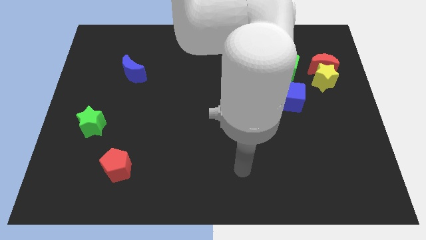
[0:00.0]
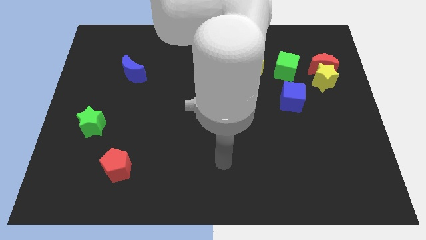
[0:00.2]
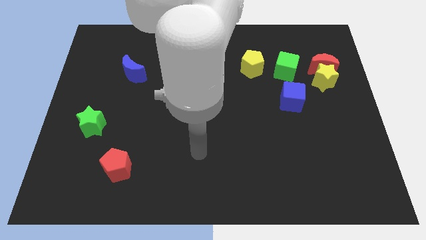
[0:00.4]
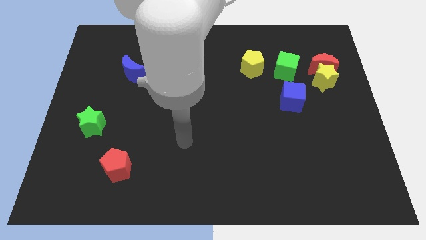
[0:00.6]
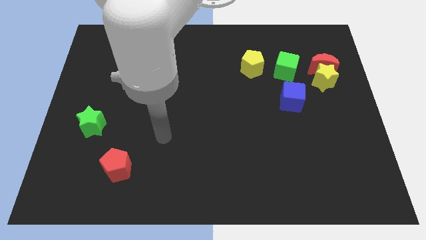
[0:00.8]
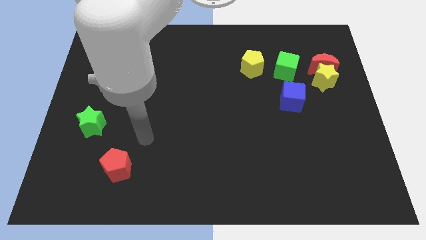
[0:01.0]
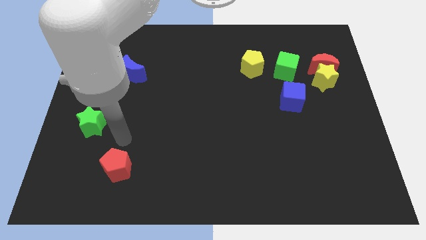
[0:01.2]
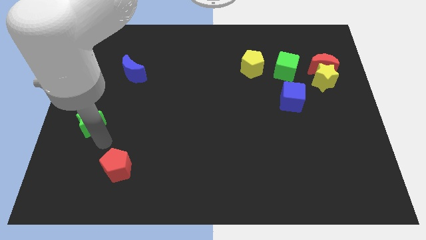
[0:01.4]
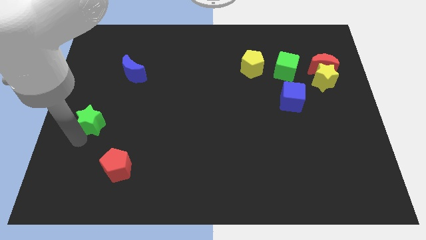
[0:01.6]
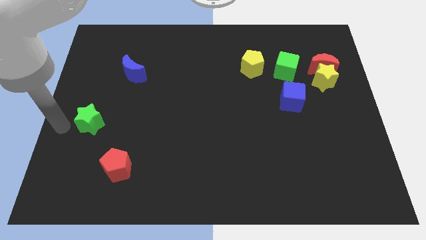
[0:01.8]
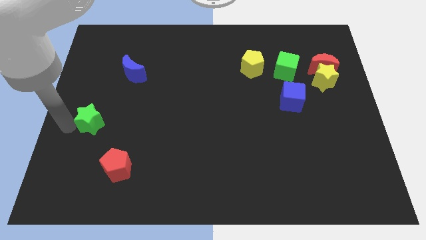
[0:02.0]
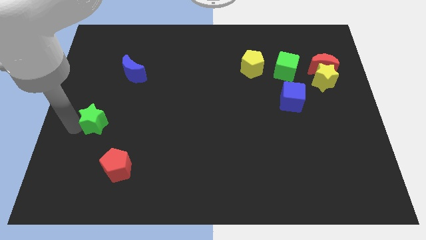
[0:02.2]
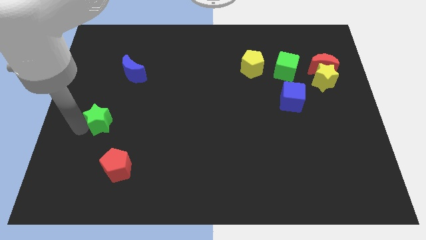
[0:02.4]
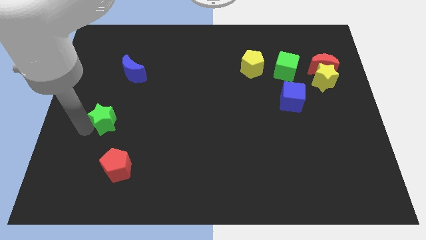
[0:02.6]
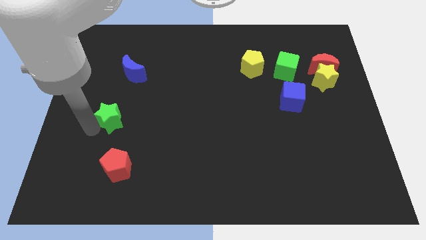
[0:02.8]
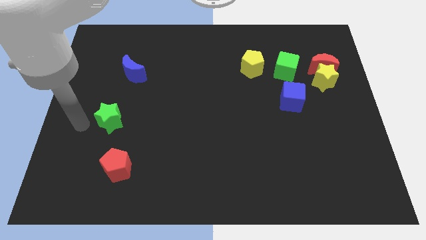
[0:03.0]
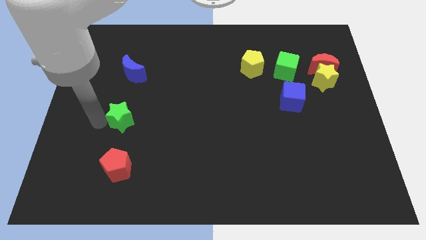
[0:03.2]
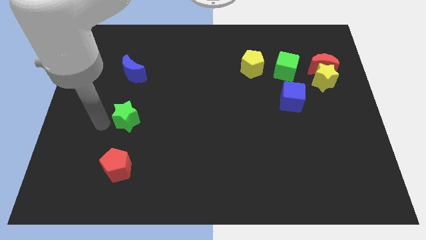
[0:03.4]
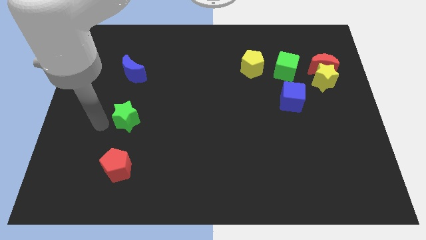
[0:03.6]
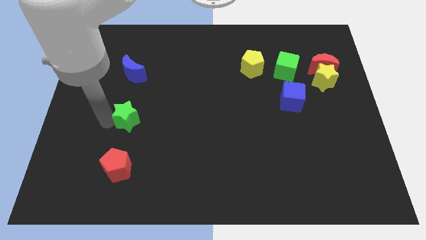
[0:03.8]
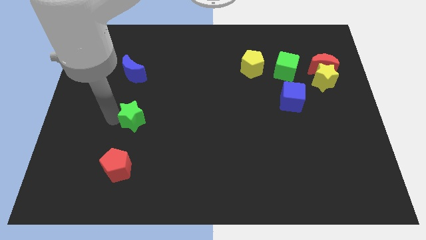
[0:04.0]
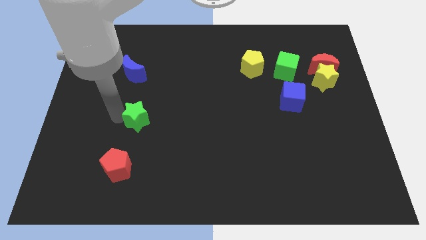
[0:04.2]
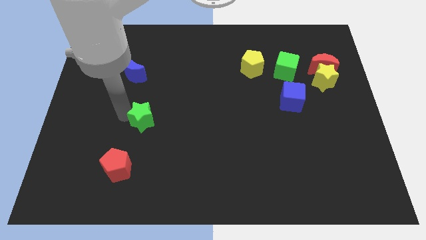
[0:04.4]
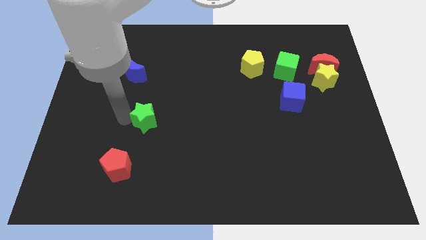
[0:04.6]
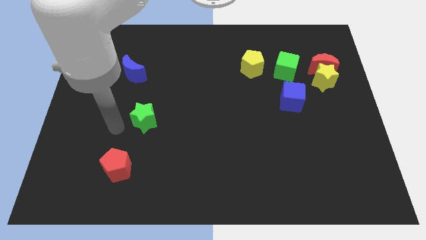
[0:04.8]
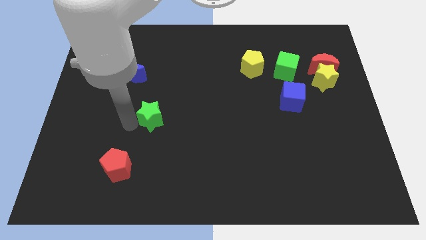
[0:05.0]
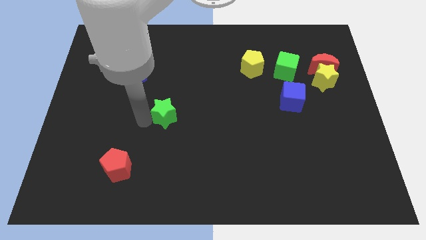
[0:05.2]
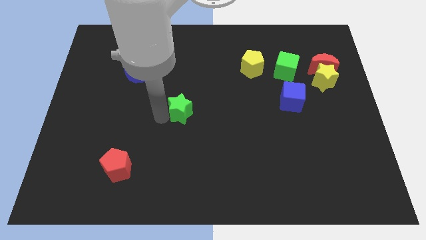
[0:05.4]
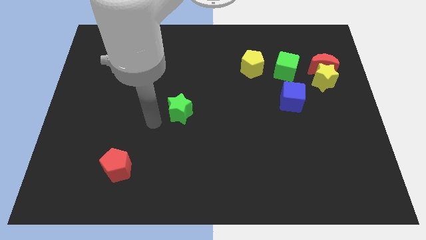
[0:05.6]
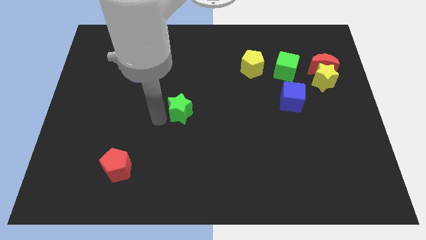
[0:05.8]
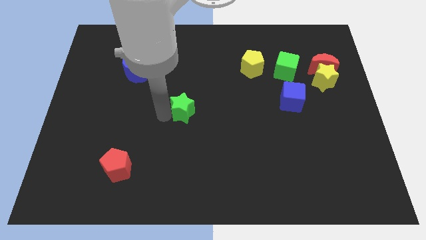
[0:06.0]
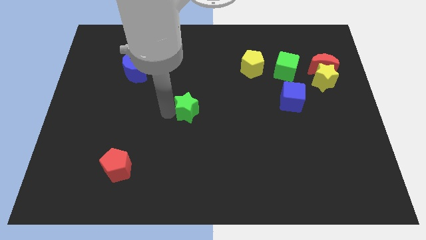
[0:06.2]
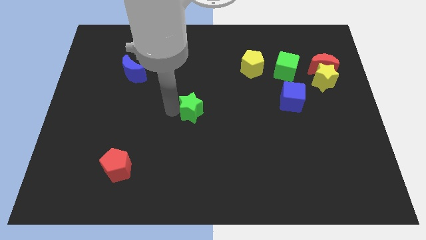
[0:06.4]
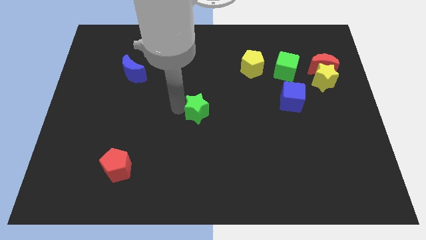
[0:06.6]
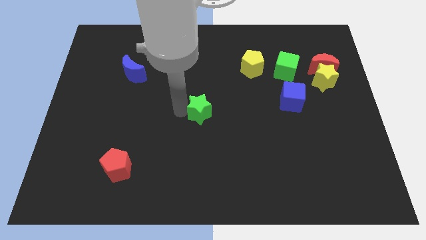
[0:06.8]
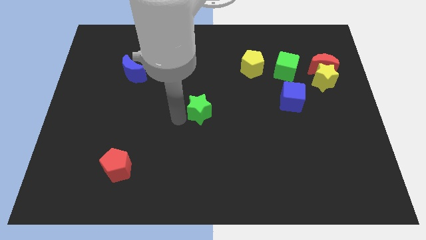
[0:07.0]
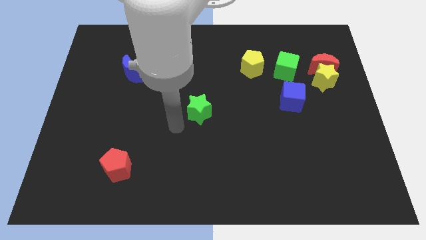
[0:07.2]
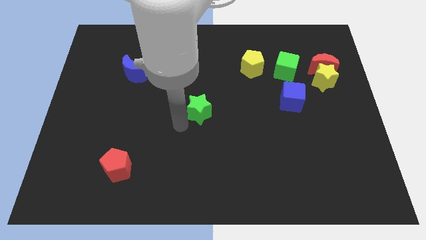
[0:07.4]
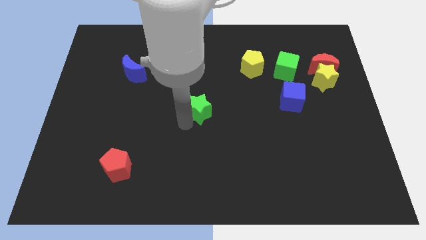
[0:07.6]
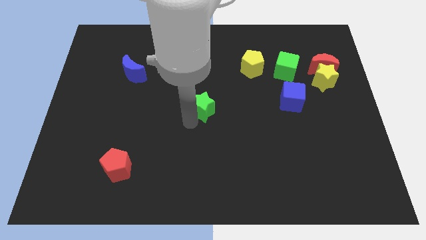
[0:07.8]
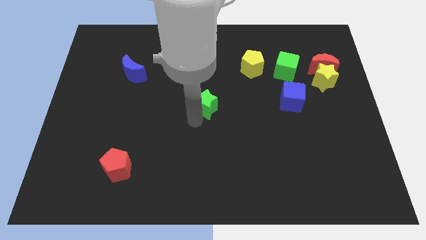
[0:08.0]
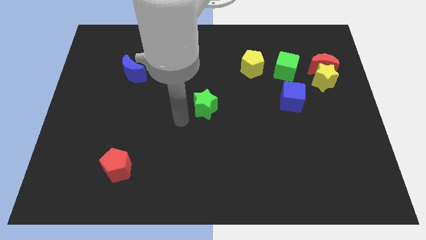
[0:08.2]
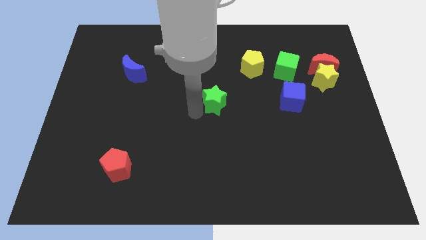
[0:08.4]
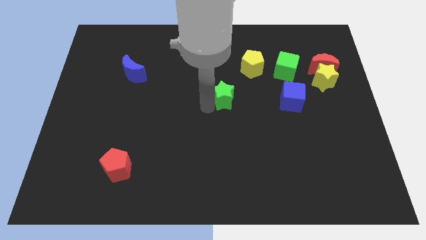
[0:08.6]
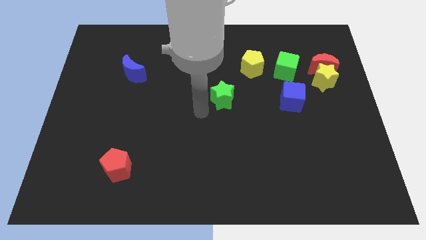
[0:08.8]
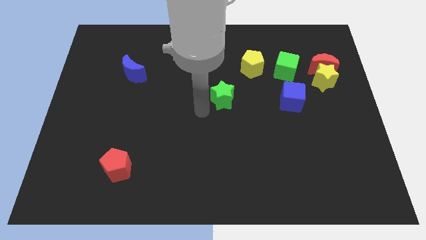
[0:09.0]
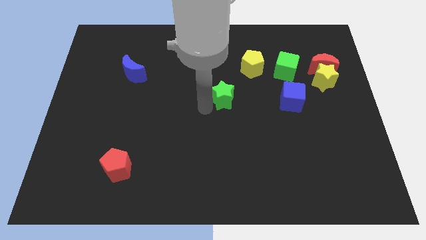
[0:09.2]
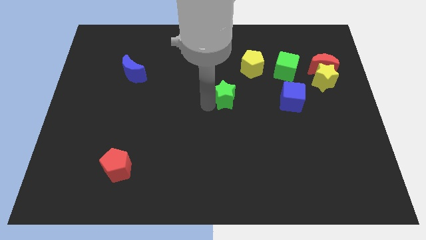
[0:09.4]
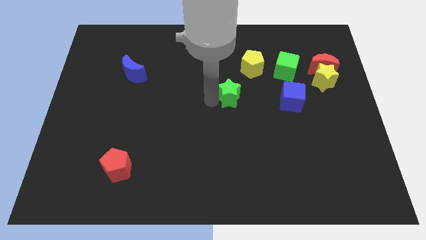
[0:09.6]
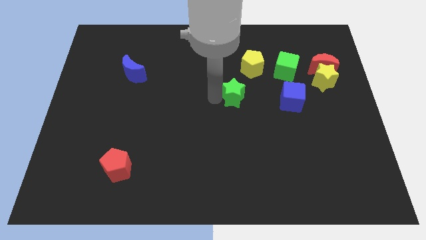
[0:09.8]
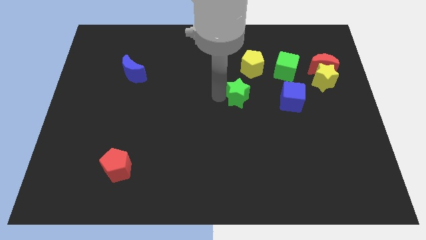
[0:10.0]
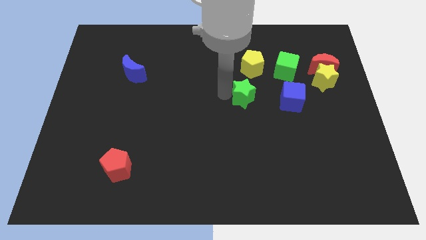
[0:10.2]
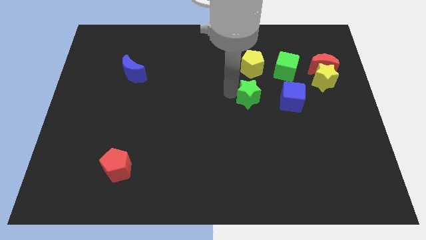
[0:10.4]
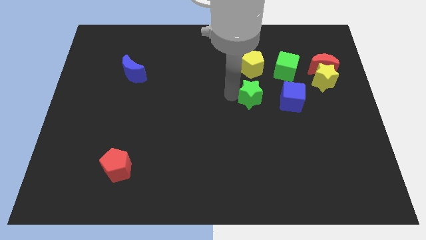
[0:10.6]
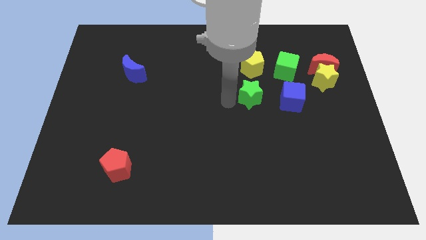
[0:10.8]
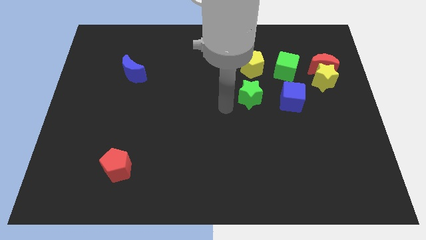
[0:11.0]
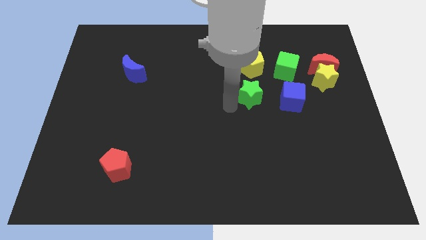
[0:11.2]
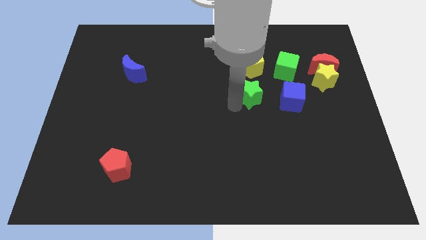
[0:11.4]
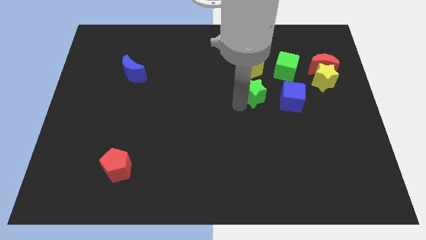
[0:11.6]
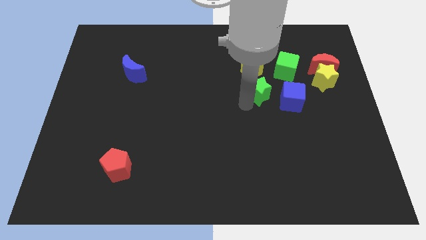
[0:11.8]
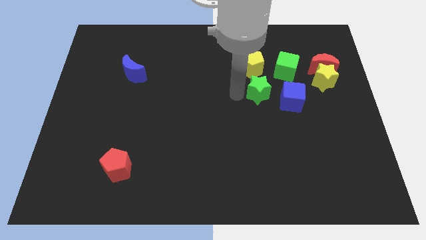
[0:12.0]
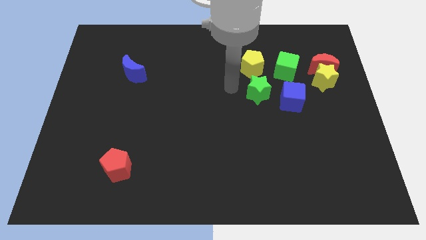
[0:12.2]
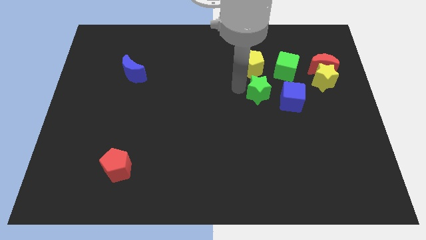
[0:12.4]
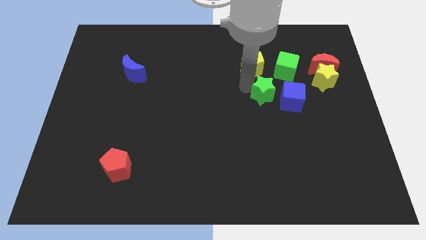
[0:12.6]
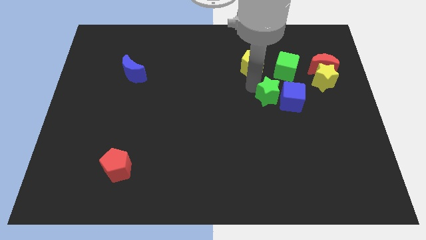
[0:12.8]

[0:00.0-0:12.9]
push the green star close to the blue cube
